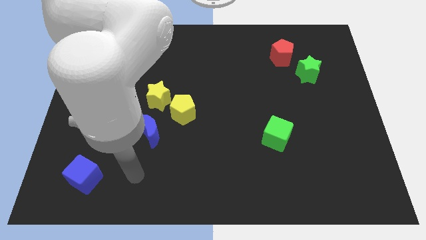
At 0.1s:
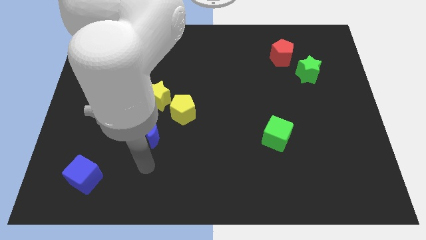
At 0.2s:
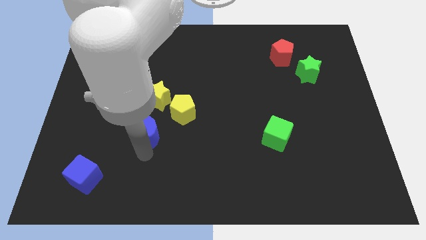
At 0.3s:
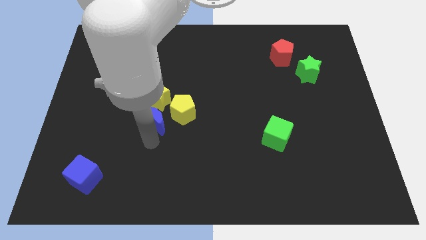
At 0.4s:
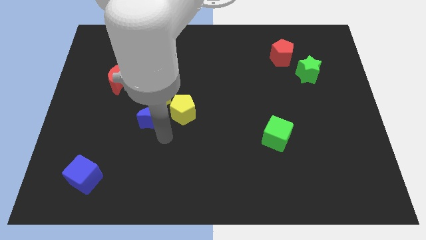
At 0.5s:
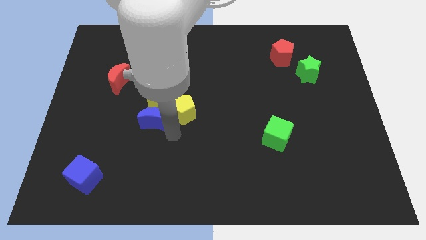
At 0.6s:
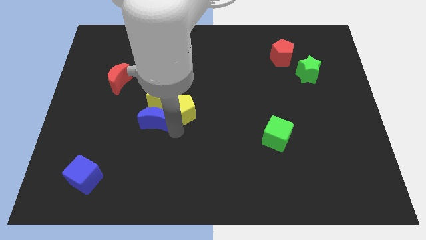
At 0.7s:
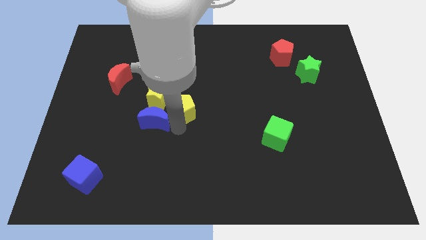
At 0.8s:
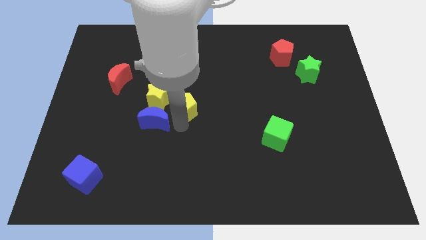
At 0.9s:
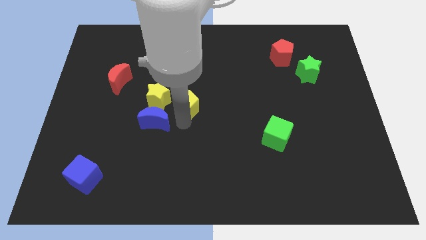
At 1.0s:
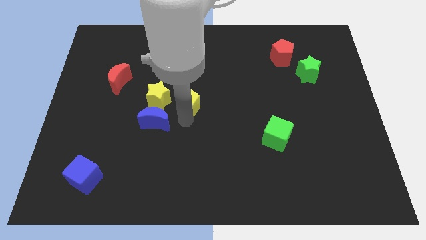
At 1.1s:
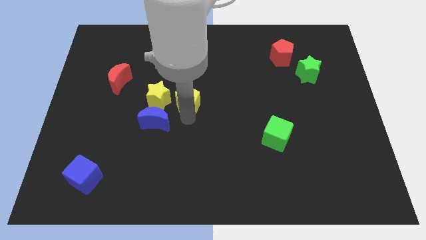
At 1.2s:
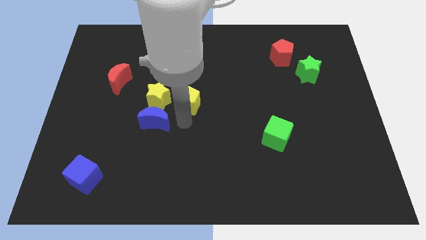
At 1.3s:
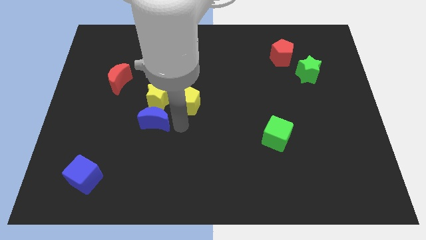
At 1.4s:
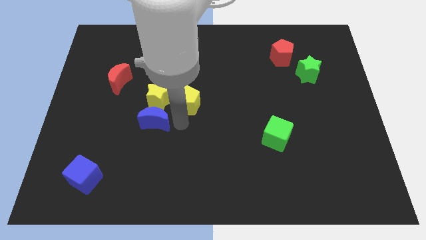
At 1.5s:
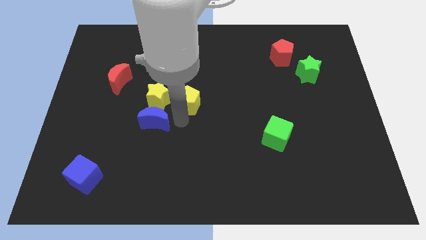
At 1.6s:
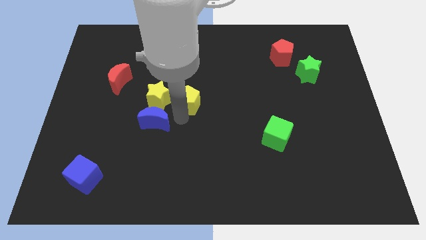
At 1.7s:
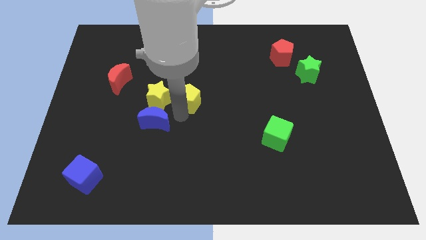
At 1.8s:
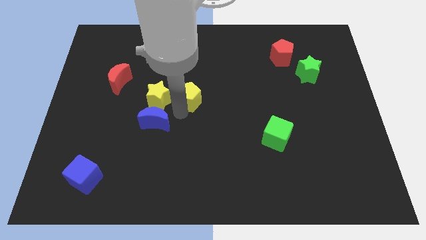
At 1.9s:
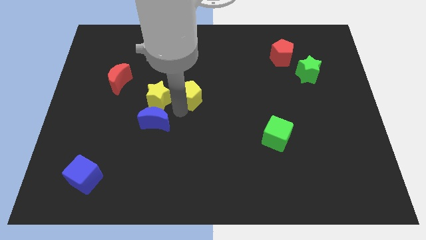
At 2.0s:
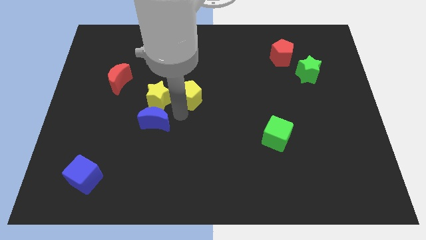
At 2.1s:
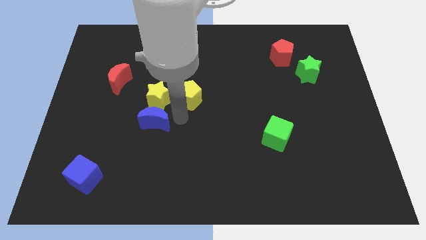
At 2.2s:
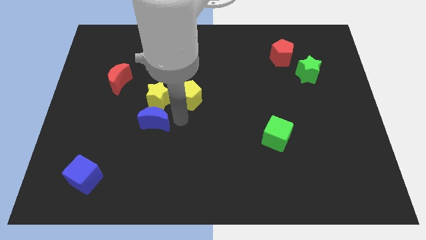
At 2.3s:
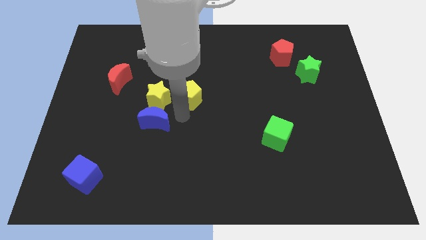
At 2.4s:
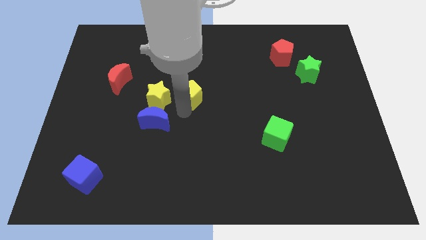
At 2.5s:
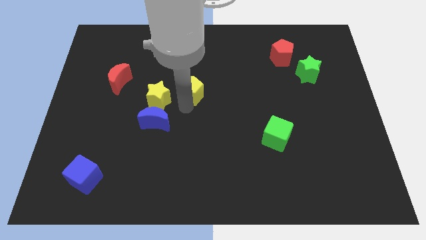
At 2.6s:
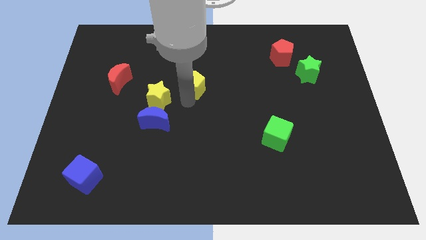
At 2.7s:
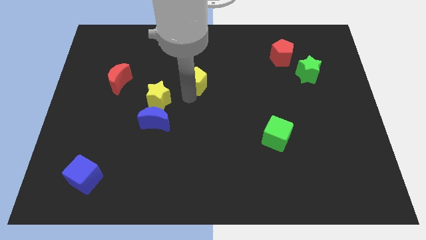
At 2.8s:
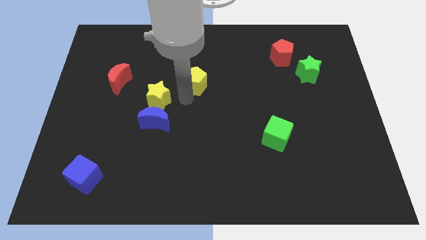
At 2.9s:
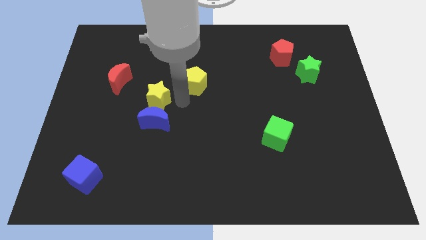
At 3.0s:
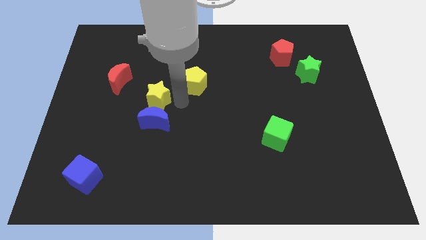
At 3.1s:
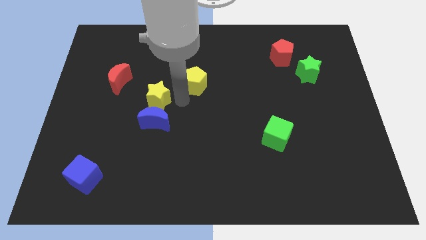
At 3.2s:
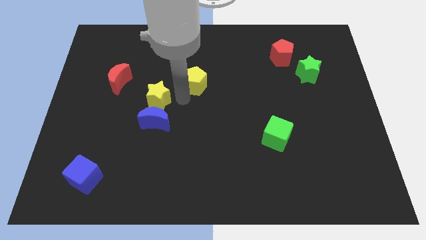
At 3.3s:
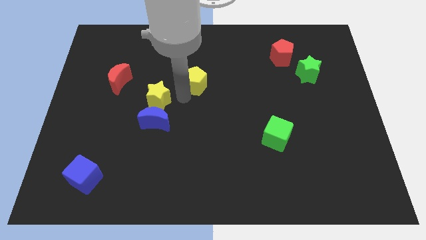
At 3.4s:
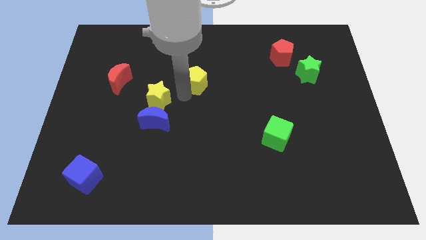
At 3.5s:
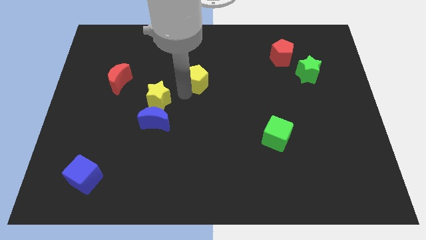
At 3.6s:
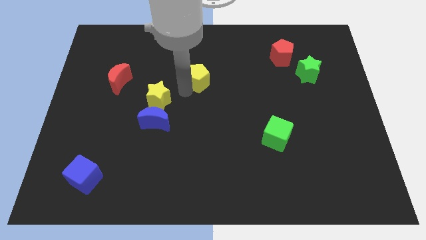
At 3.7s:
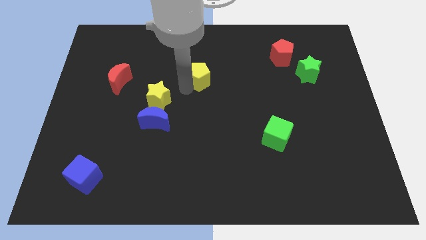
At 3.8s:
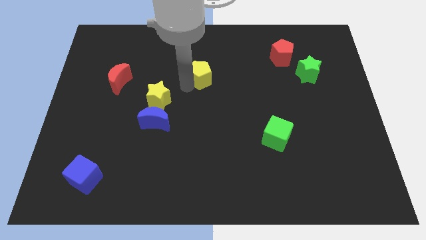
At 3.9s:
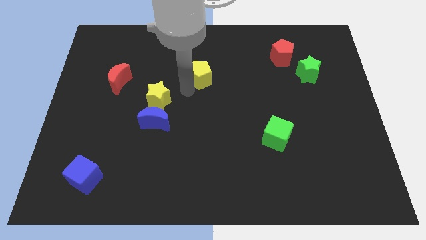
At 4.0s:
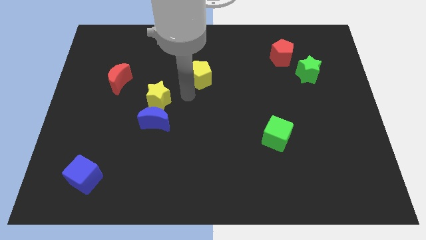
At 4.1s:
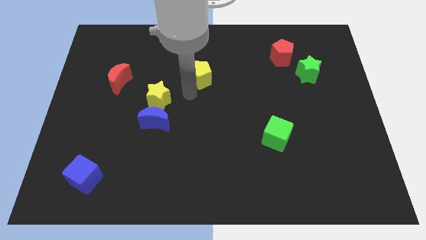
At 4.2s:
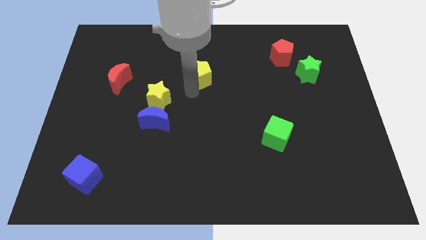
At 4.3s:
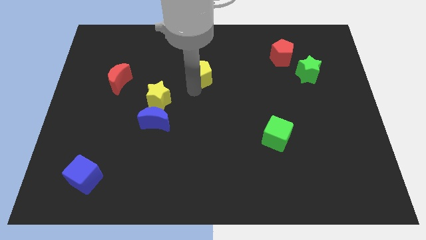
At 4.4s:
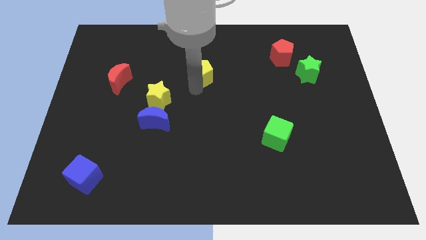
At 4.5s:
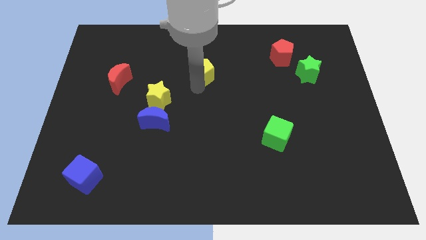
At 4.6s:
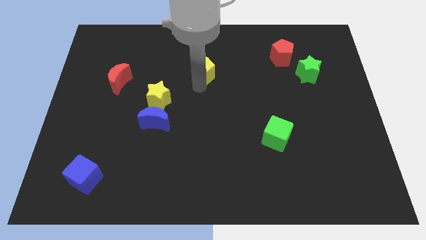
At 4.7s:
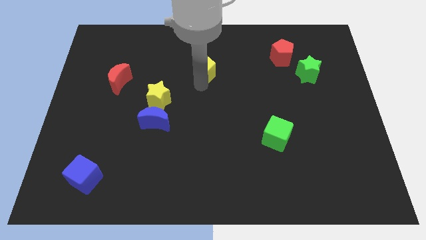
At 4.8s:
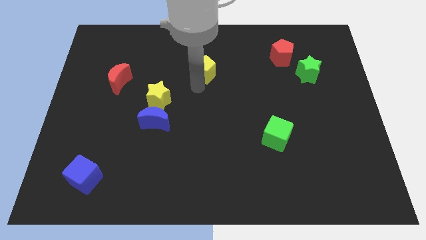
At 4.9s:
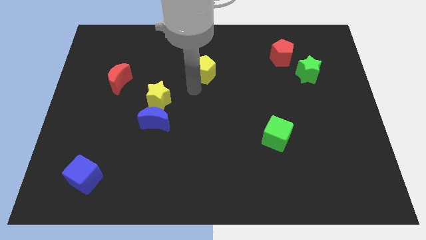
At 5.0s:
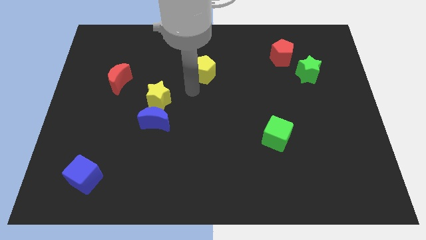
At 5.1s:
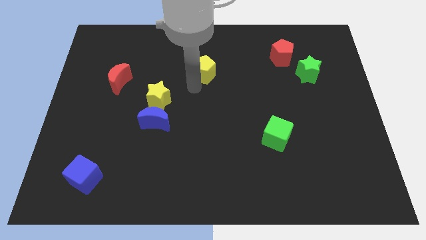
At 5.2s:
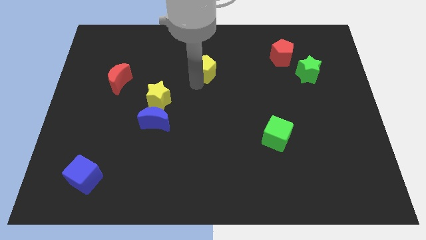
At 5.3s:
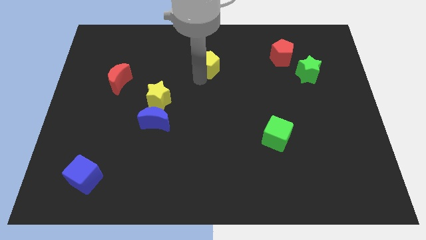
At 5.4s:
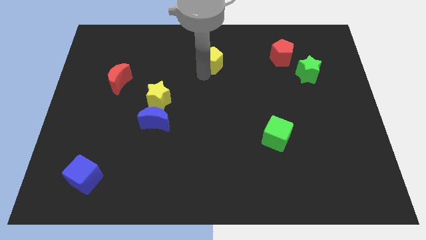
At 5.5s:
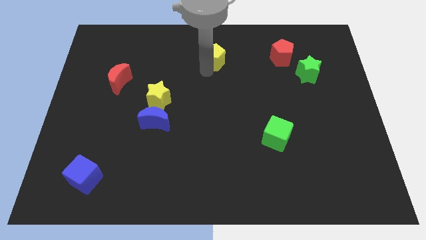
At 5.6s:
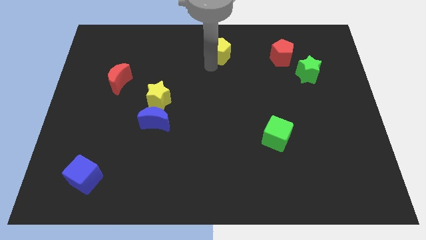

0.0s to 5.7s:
move the yellow pentagon to the top side

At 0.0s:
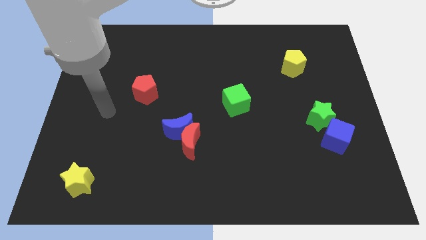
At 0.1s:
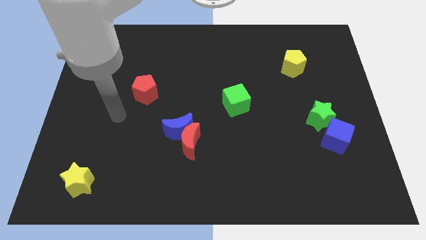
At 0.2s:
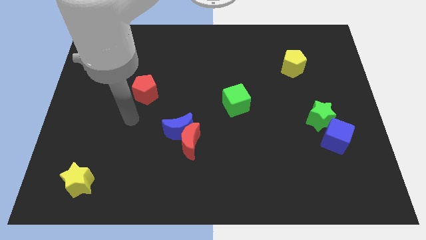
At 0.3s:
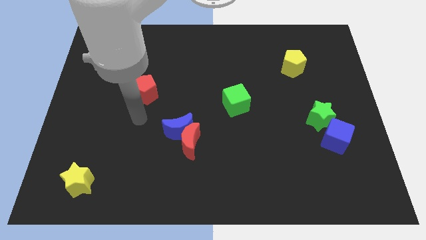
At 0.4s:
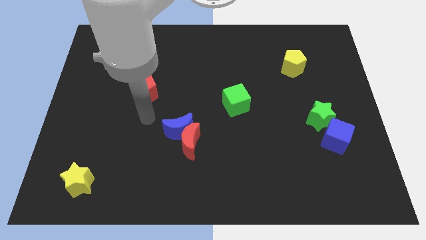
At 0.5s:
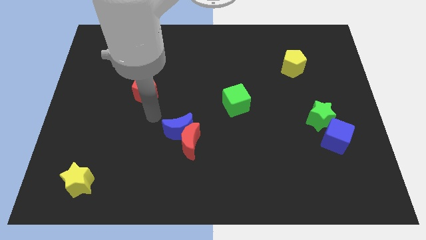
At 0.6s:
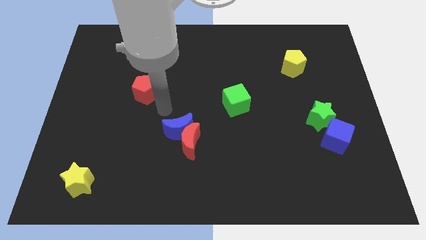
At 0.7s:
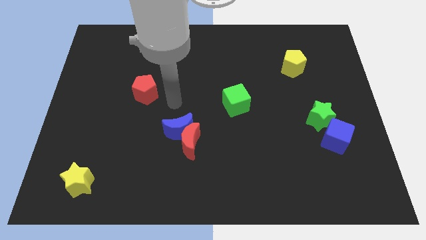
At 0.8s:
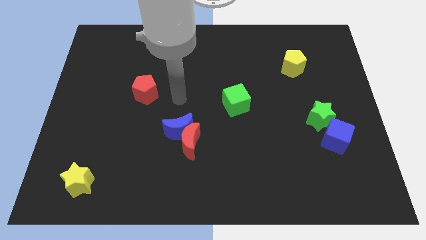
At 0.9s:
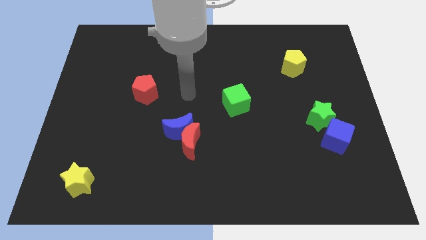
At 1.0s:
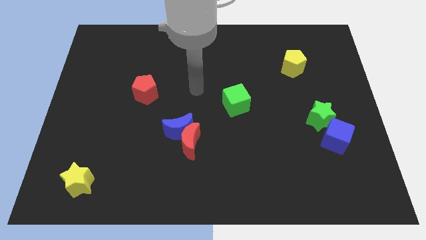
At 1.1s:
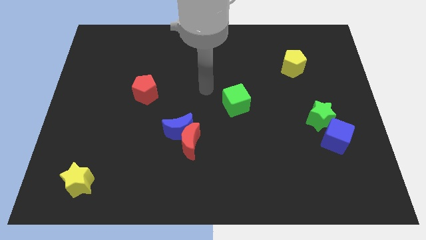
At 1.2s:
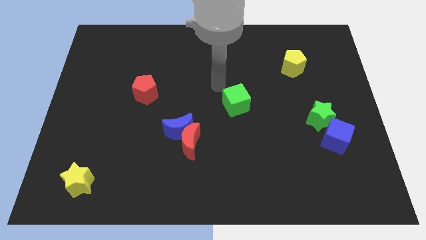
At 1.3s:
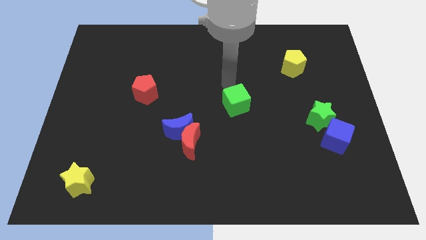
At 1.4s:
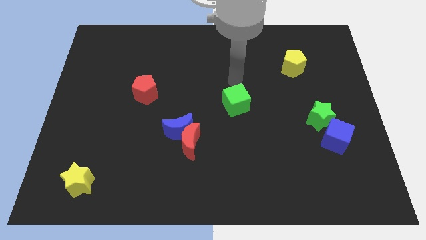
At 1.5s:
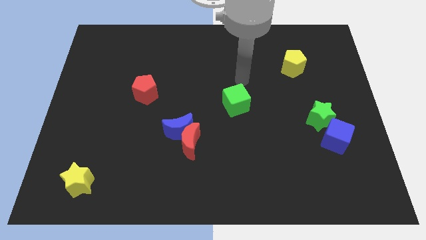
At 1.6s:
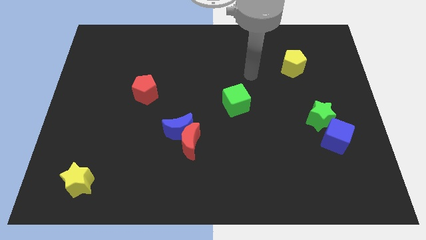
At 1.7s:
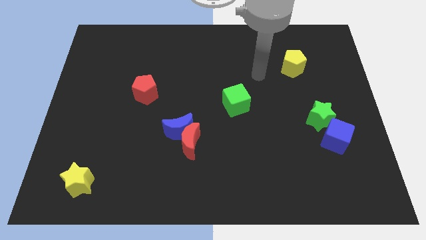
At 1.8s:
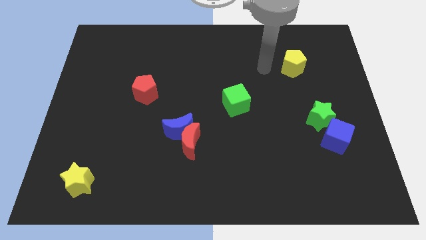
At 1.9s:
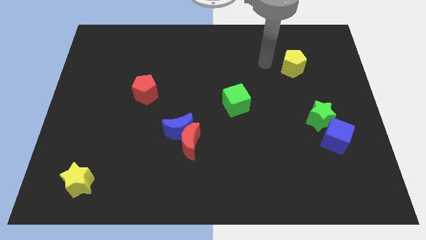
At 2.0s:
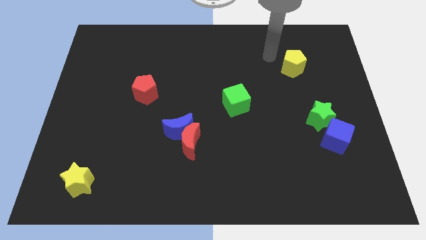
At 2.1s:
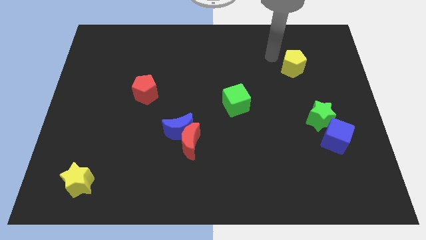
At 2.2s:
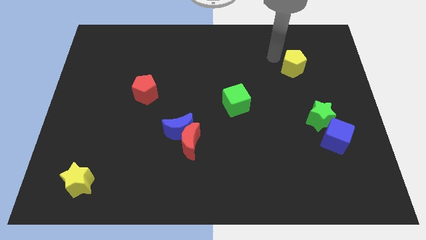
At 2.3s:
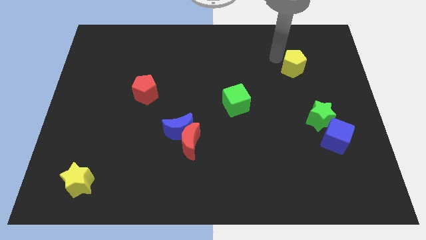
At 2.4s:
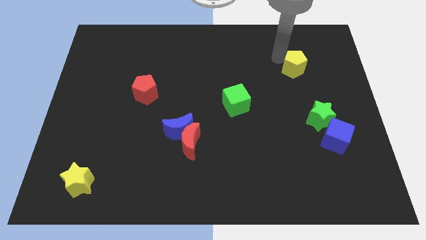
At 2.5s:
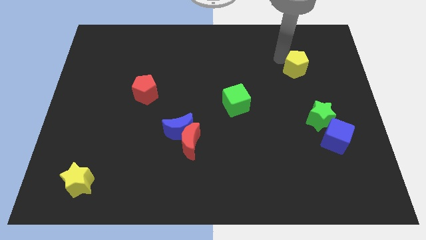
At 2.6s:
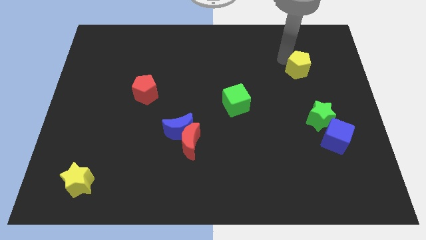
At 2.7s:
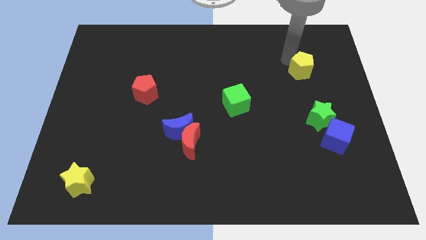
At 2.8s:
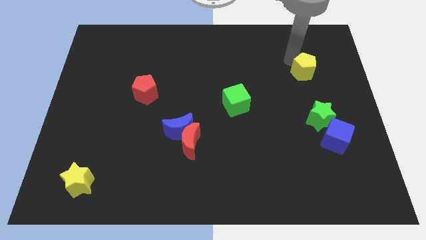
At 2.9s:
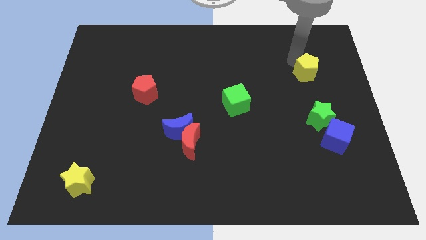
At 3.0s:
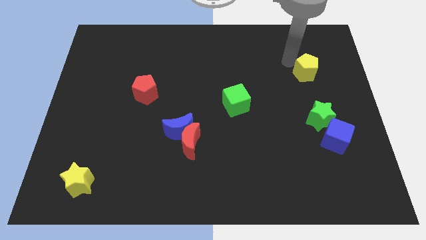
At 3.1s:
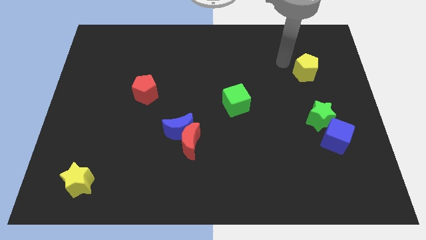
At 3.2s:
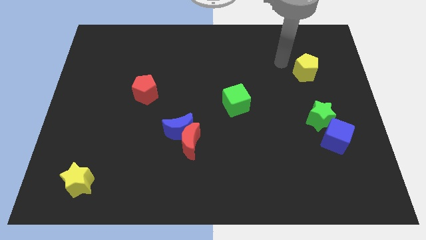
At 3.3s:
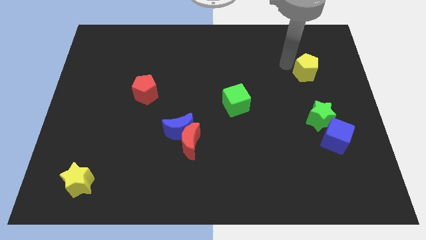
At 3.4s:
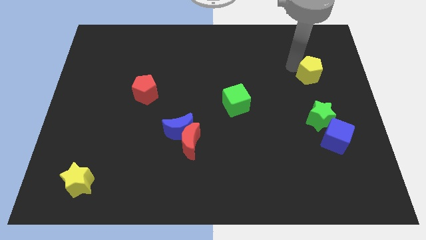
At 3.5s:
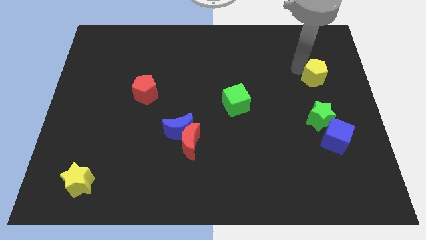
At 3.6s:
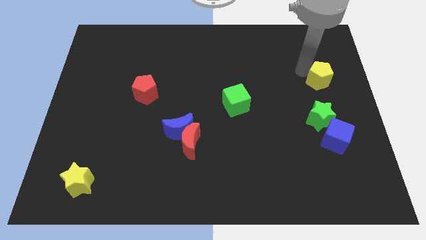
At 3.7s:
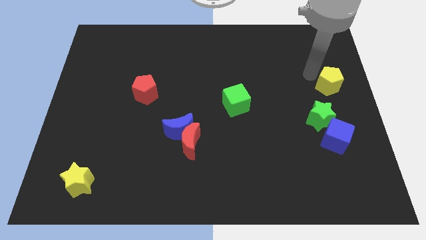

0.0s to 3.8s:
slide the yellow pentagon to the right side
